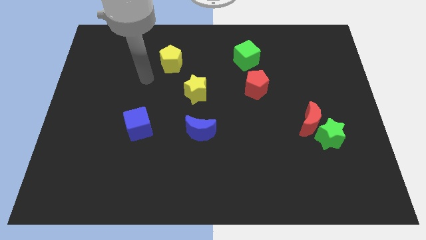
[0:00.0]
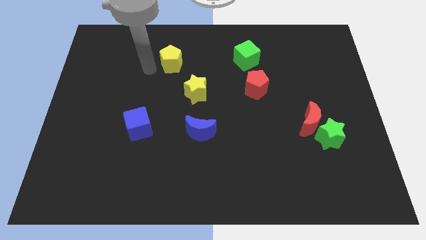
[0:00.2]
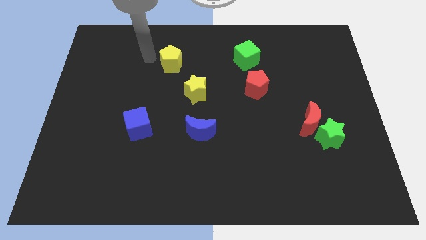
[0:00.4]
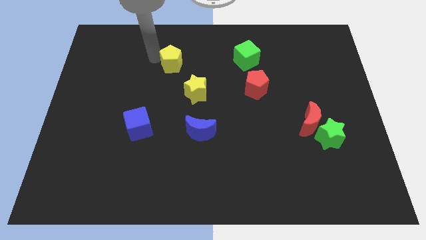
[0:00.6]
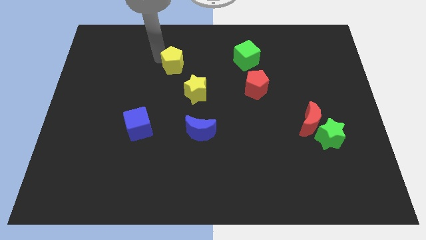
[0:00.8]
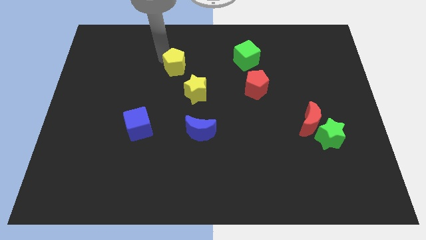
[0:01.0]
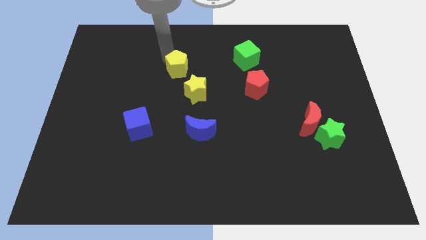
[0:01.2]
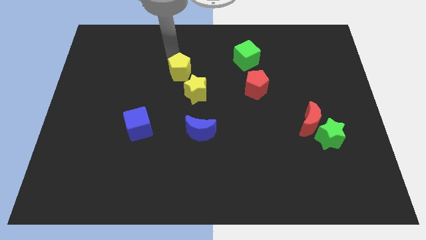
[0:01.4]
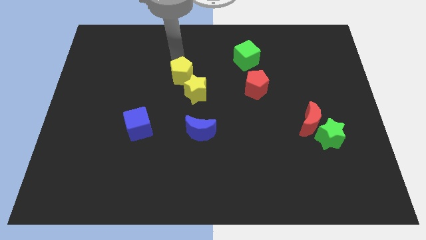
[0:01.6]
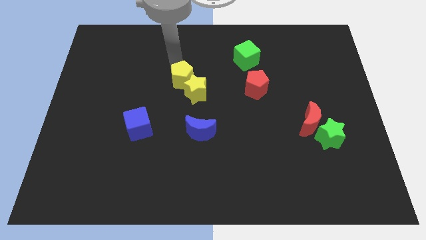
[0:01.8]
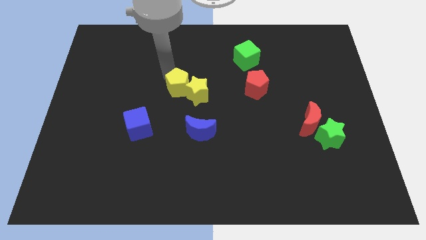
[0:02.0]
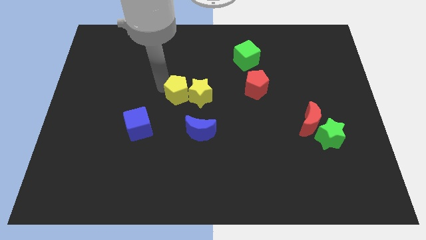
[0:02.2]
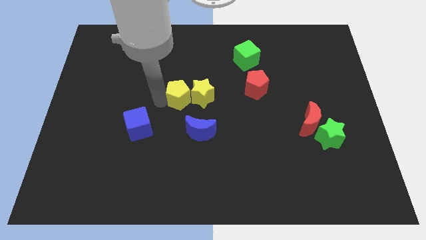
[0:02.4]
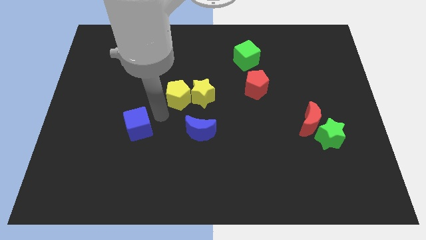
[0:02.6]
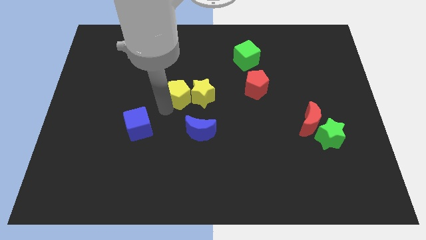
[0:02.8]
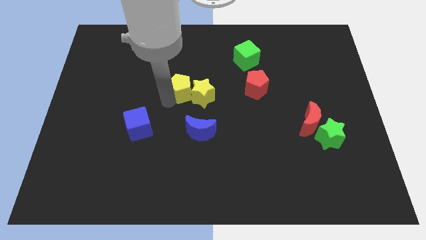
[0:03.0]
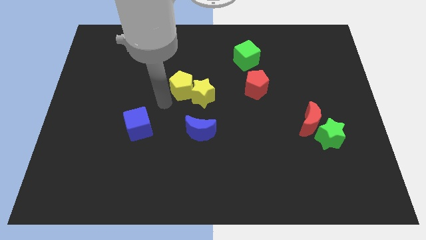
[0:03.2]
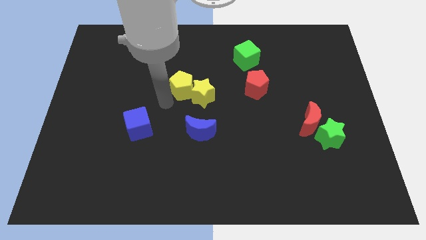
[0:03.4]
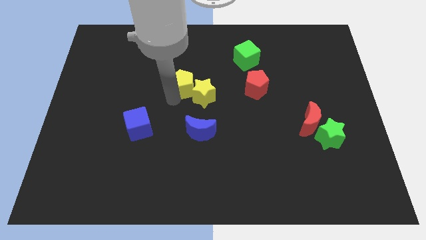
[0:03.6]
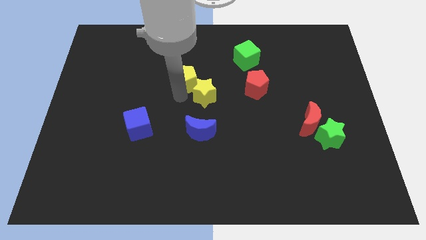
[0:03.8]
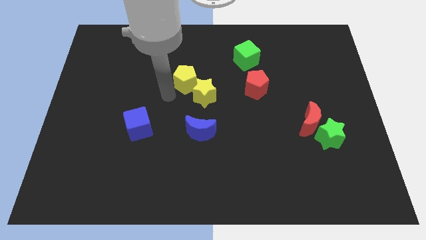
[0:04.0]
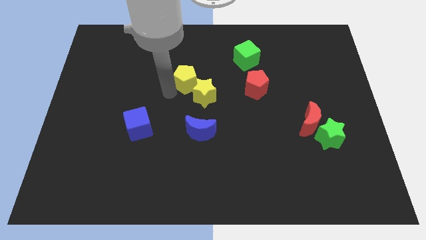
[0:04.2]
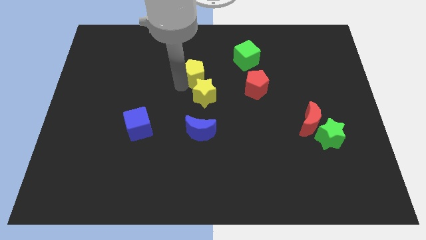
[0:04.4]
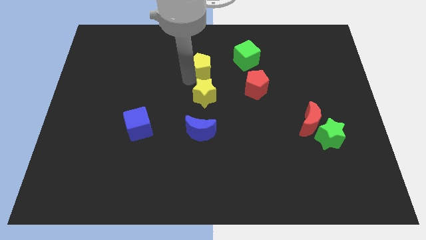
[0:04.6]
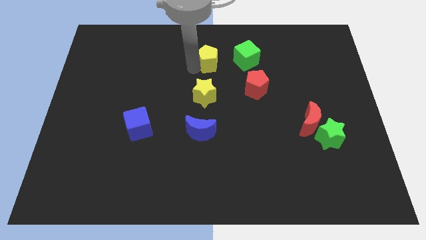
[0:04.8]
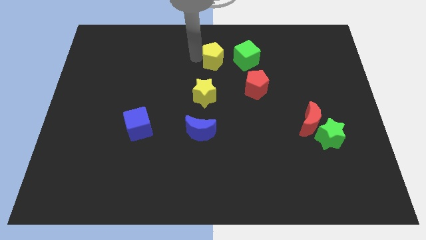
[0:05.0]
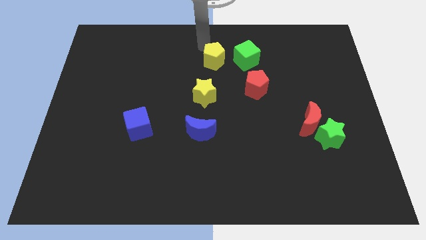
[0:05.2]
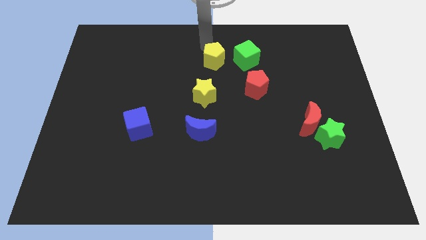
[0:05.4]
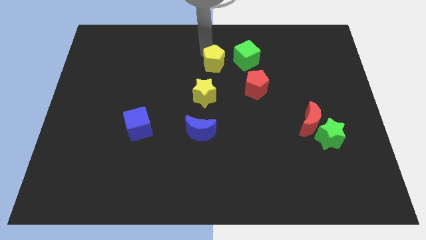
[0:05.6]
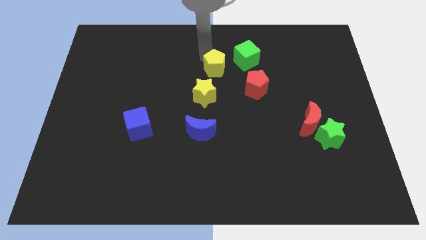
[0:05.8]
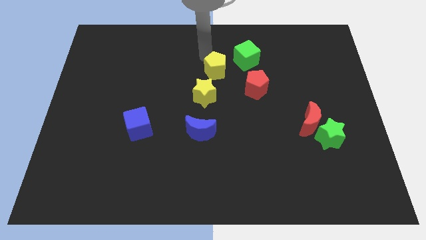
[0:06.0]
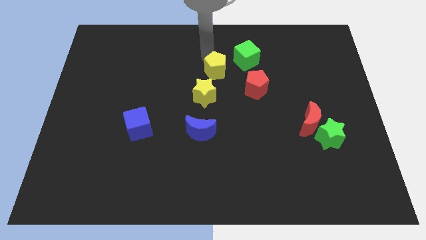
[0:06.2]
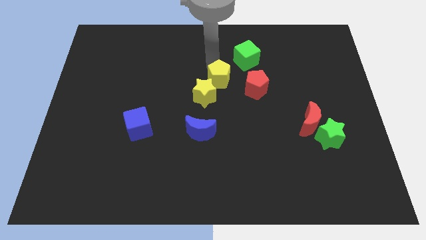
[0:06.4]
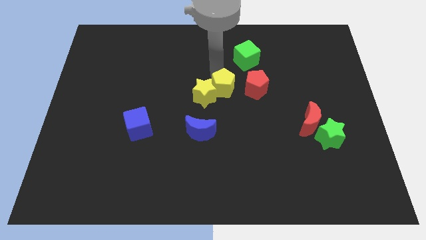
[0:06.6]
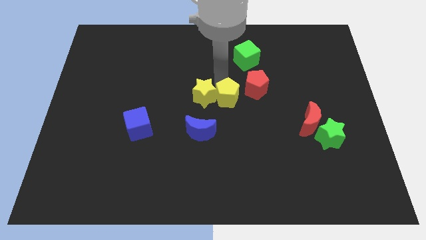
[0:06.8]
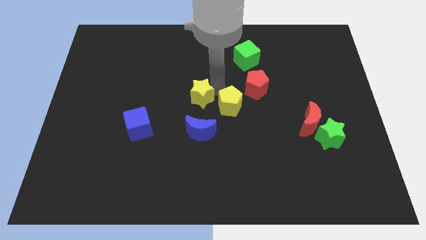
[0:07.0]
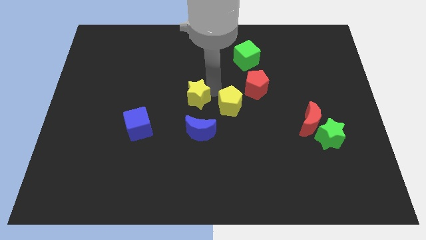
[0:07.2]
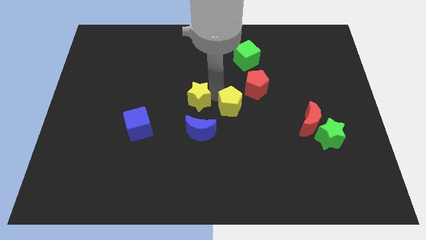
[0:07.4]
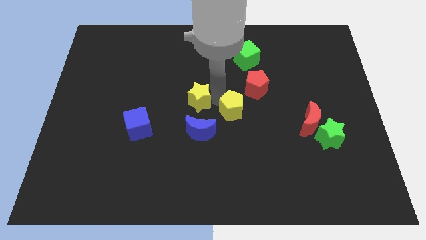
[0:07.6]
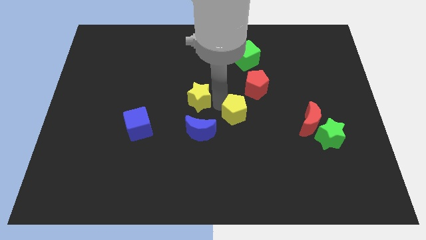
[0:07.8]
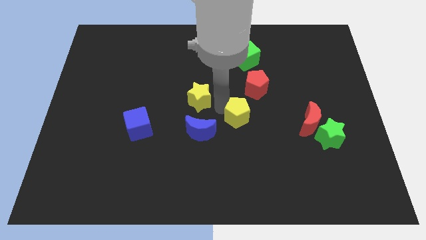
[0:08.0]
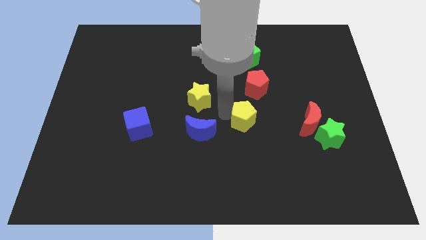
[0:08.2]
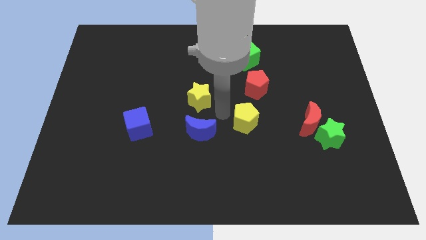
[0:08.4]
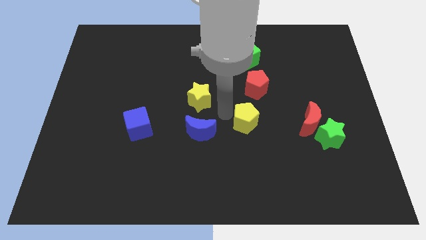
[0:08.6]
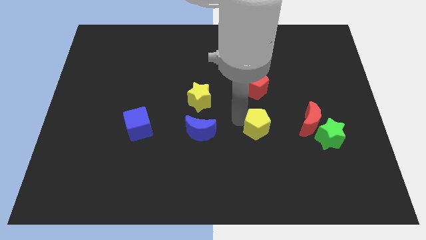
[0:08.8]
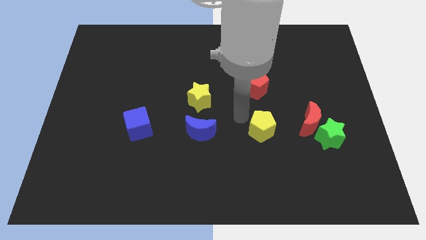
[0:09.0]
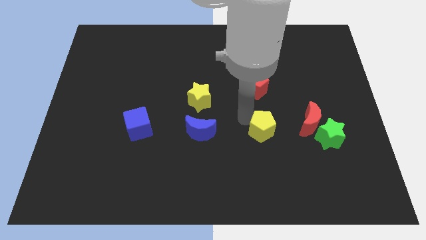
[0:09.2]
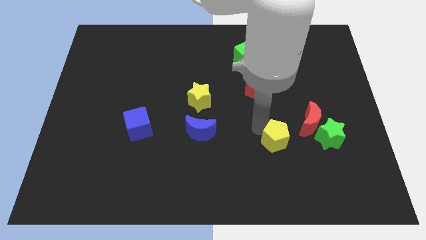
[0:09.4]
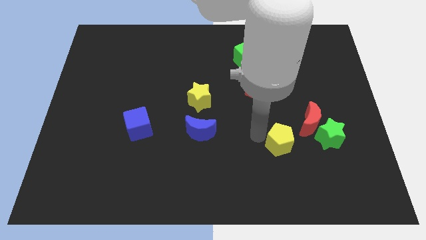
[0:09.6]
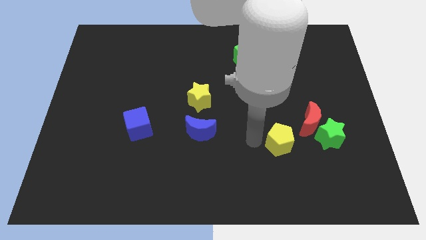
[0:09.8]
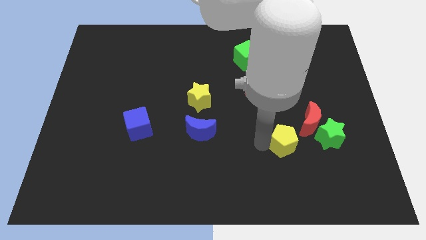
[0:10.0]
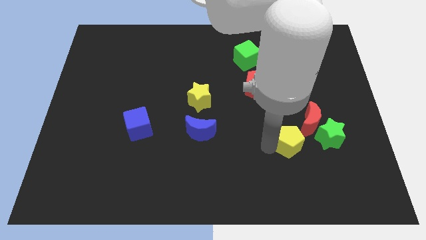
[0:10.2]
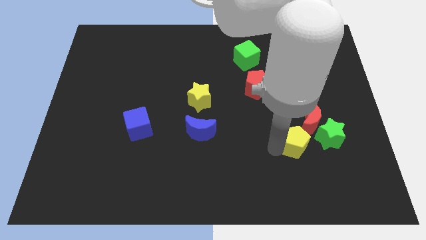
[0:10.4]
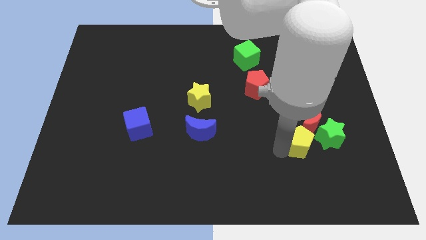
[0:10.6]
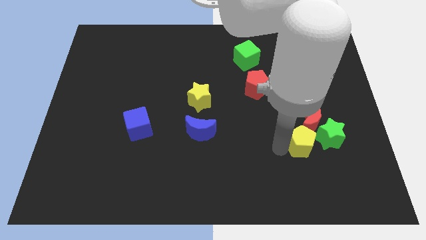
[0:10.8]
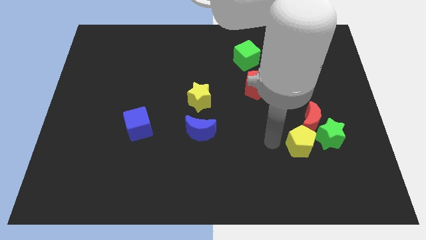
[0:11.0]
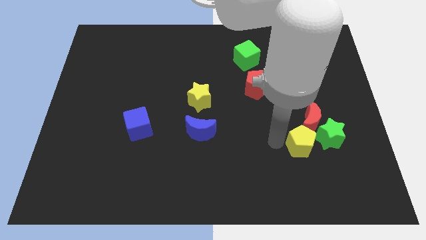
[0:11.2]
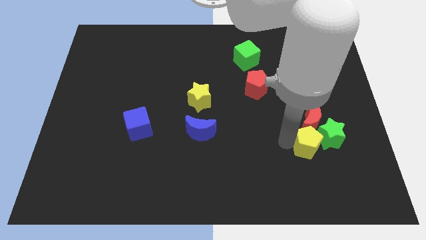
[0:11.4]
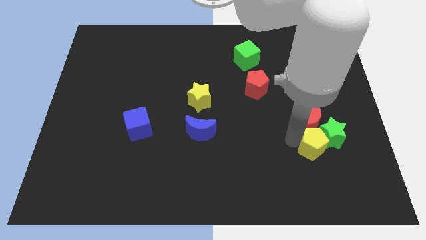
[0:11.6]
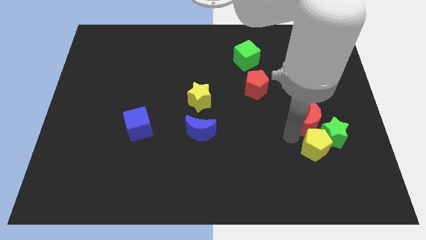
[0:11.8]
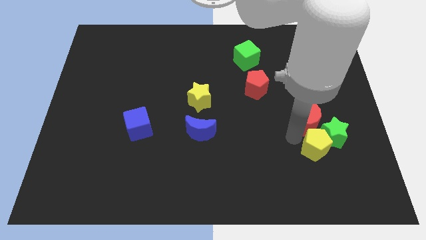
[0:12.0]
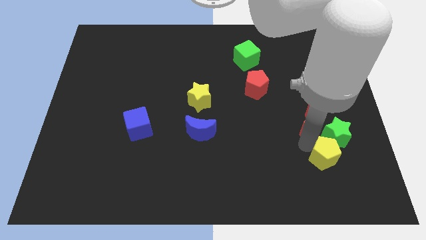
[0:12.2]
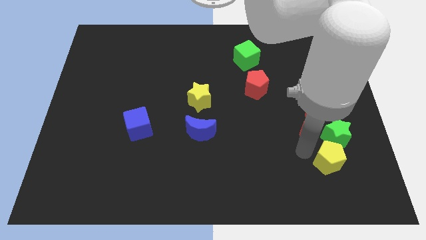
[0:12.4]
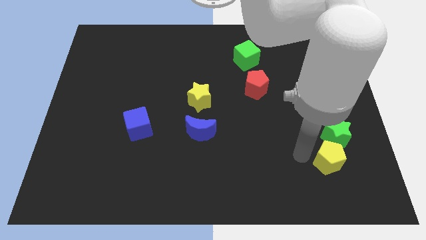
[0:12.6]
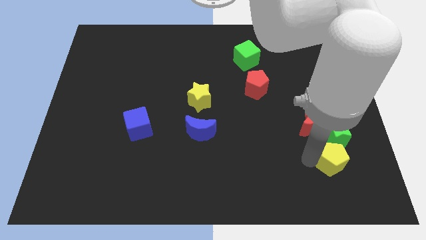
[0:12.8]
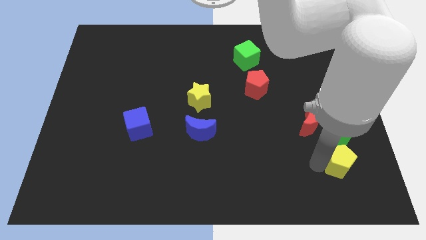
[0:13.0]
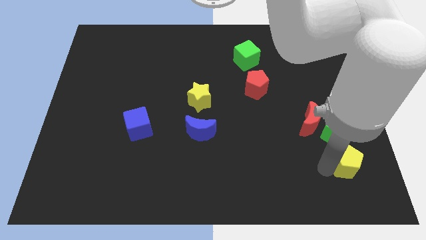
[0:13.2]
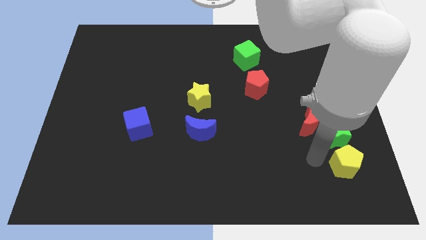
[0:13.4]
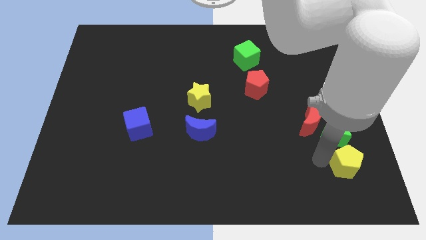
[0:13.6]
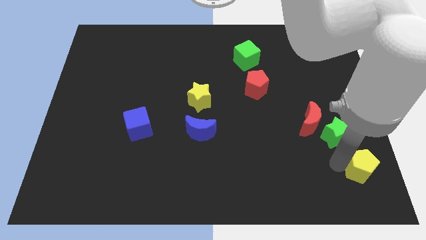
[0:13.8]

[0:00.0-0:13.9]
move the yellow pentagon to the bottom right corner
